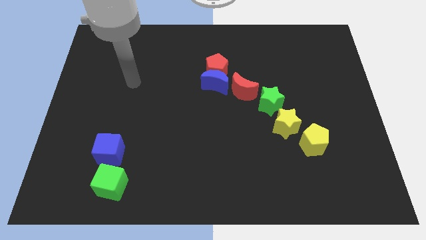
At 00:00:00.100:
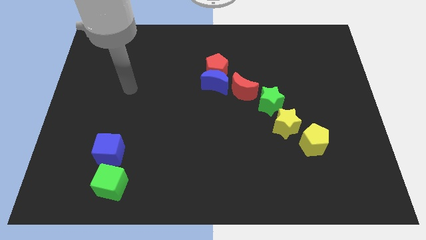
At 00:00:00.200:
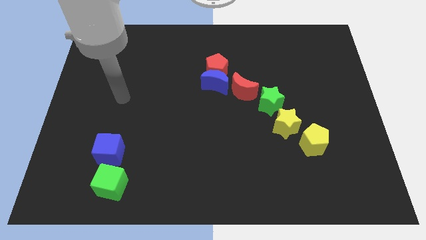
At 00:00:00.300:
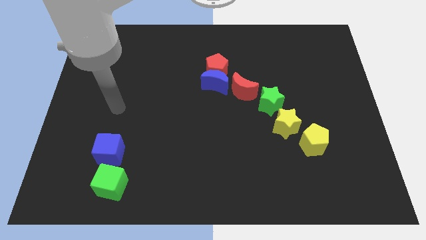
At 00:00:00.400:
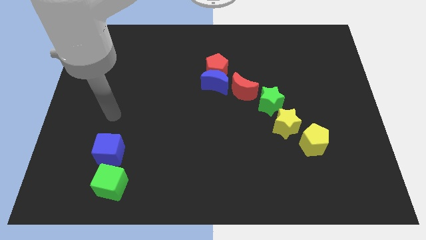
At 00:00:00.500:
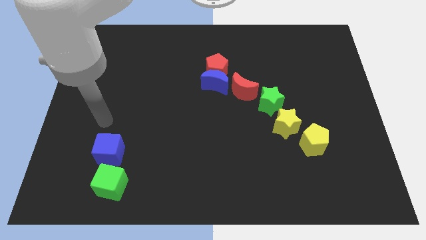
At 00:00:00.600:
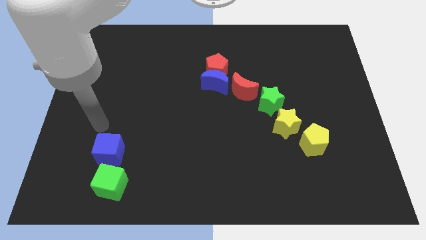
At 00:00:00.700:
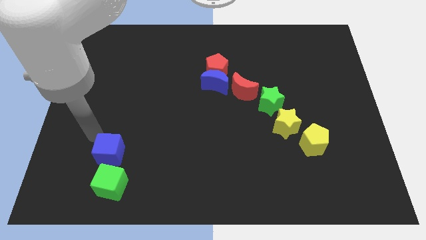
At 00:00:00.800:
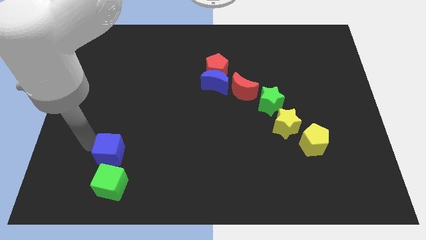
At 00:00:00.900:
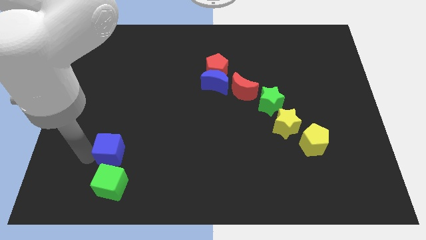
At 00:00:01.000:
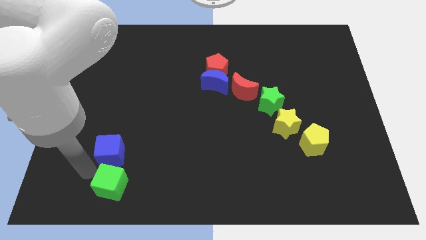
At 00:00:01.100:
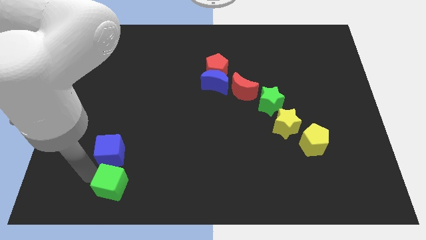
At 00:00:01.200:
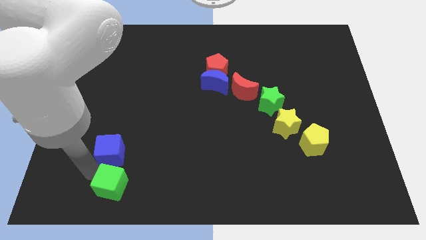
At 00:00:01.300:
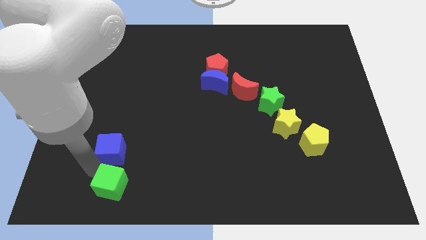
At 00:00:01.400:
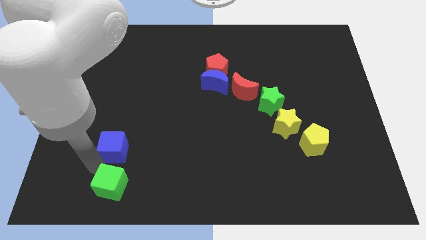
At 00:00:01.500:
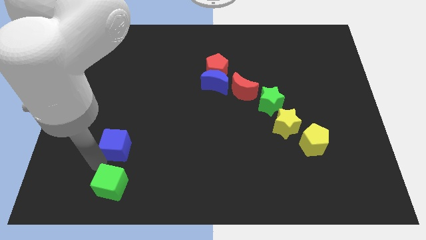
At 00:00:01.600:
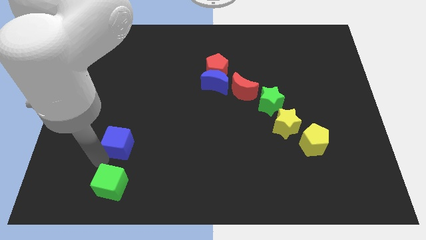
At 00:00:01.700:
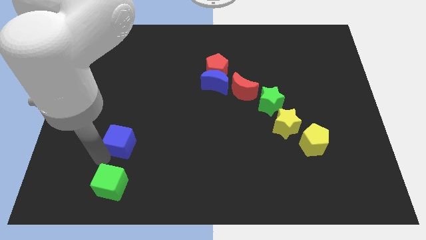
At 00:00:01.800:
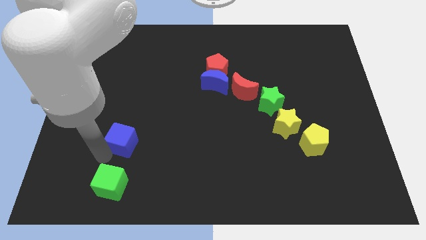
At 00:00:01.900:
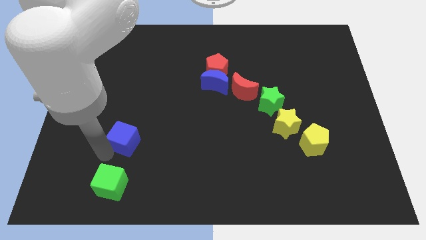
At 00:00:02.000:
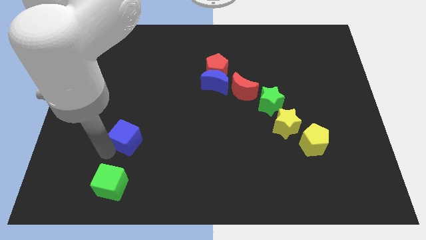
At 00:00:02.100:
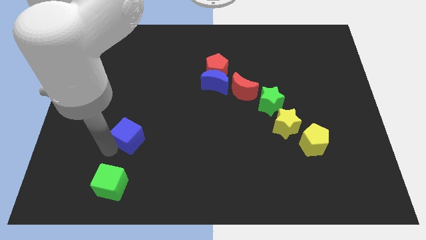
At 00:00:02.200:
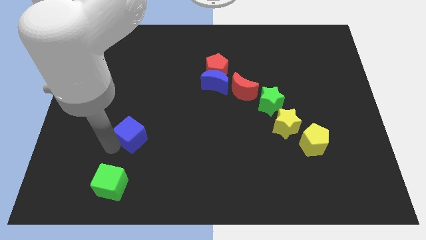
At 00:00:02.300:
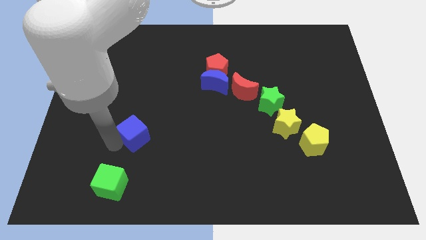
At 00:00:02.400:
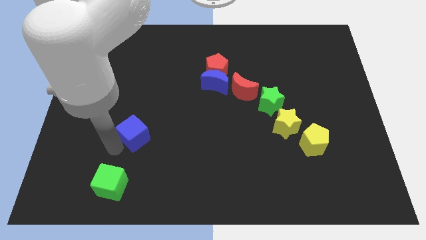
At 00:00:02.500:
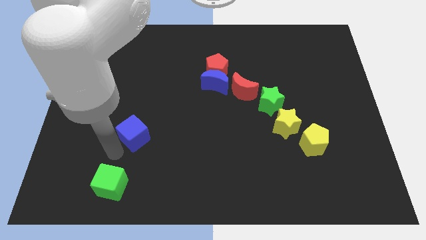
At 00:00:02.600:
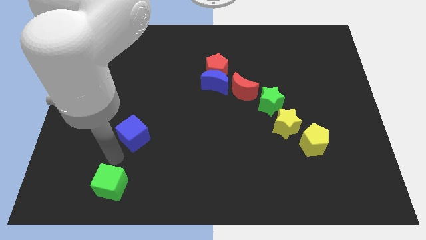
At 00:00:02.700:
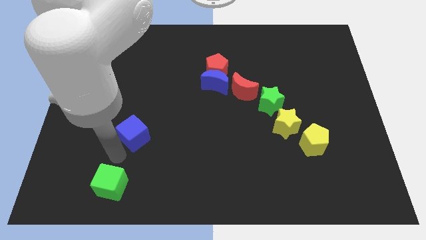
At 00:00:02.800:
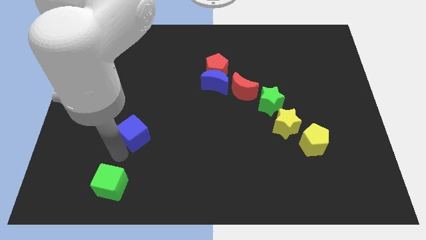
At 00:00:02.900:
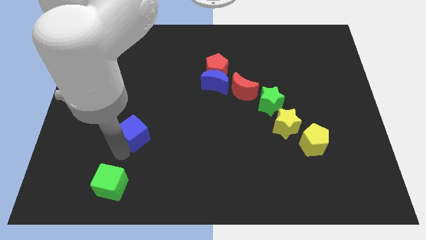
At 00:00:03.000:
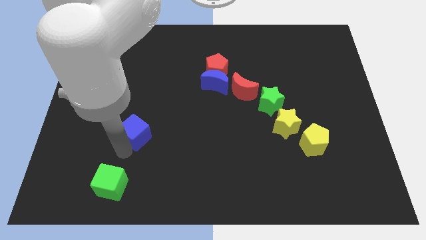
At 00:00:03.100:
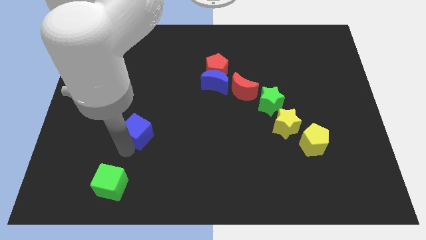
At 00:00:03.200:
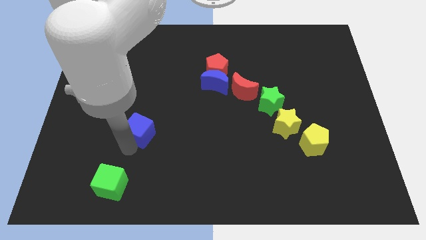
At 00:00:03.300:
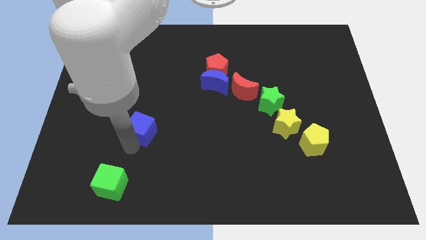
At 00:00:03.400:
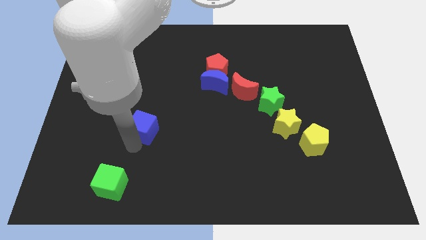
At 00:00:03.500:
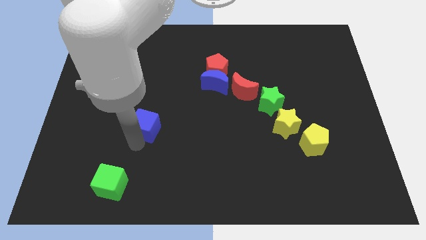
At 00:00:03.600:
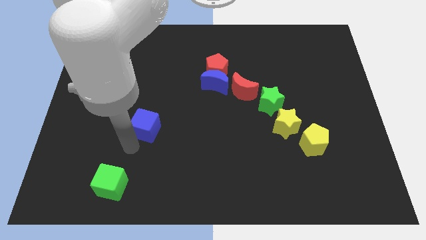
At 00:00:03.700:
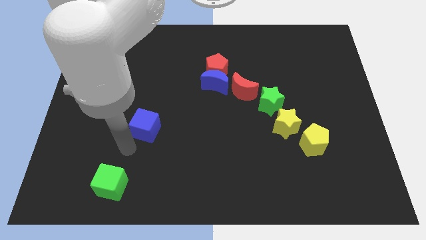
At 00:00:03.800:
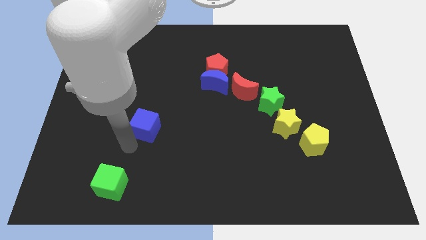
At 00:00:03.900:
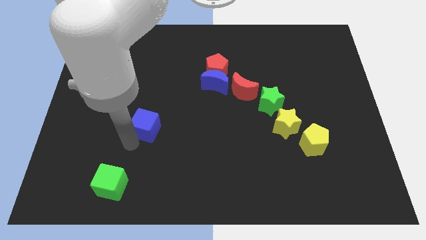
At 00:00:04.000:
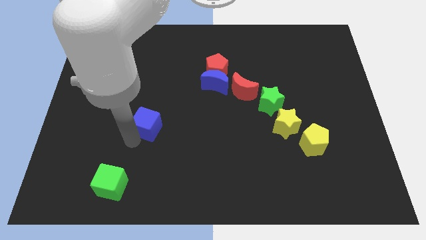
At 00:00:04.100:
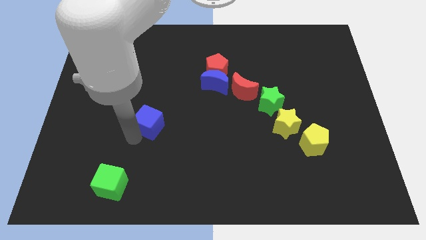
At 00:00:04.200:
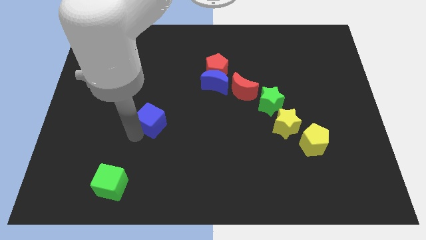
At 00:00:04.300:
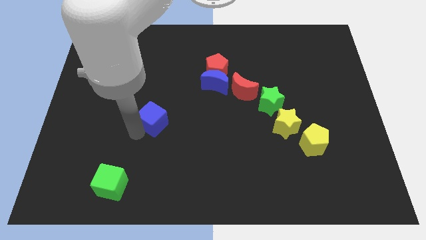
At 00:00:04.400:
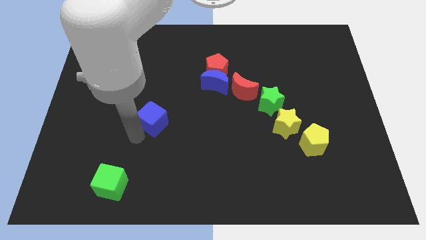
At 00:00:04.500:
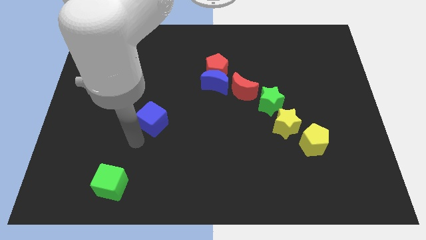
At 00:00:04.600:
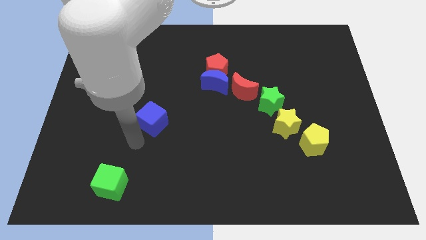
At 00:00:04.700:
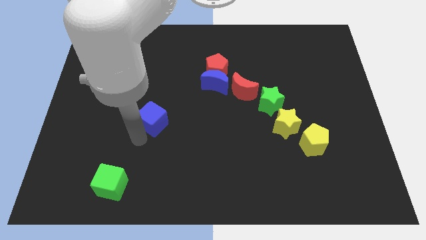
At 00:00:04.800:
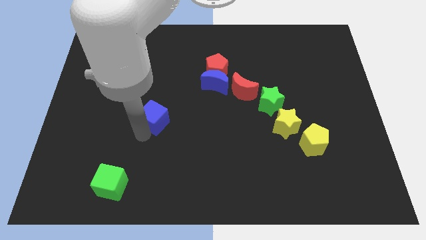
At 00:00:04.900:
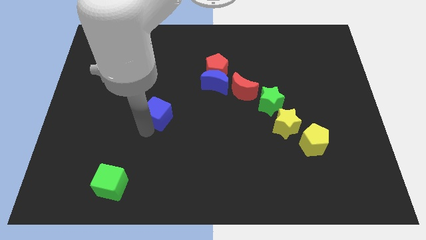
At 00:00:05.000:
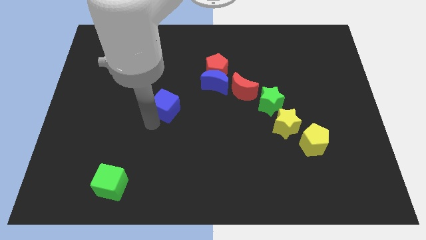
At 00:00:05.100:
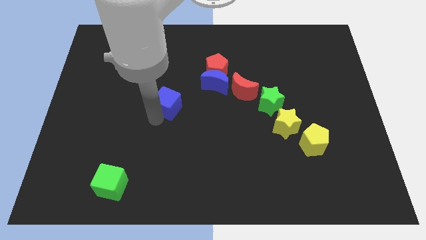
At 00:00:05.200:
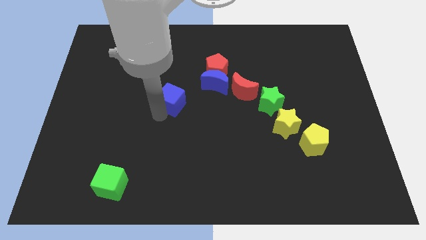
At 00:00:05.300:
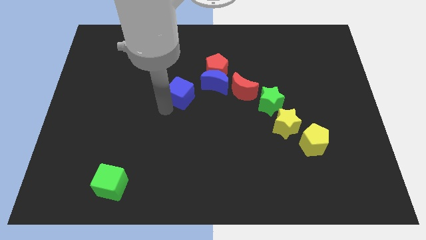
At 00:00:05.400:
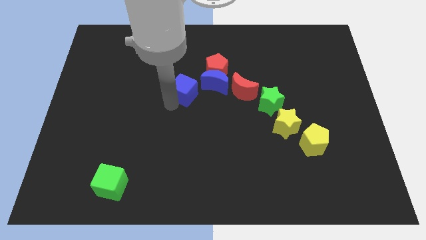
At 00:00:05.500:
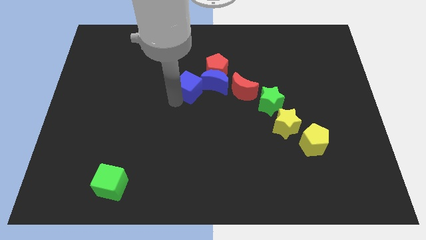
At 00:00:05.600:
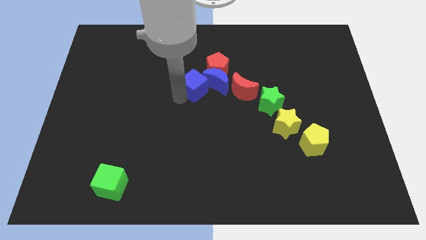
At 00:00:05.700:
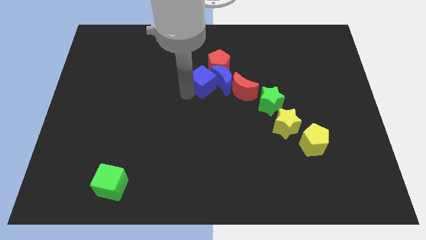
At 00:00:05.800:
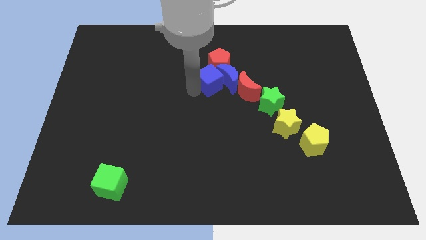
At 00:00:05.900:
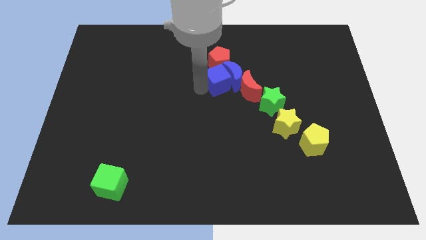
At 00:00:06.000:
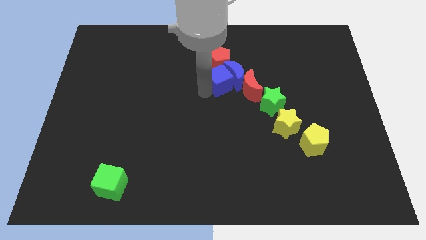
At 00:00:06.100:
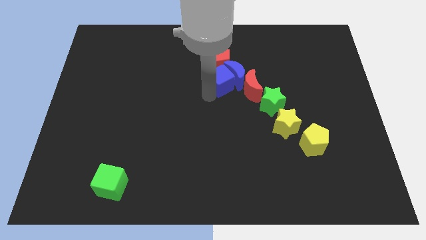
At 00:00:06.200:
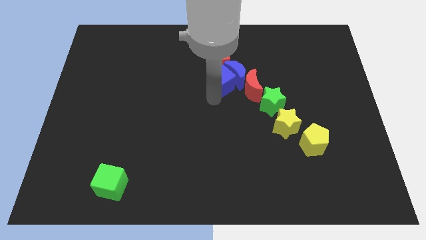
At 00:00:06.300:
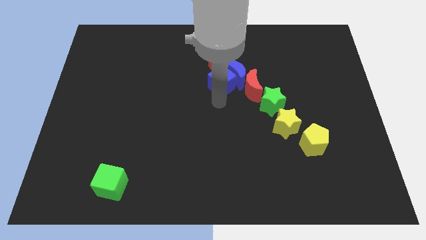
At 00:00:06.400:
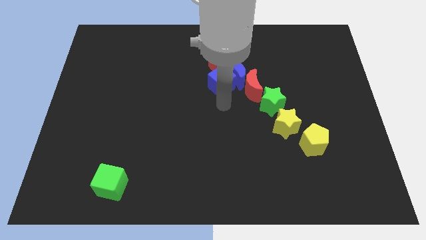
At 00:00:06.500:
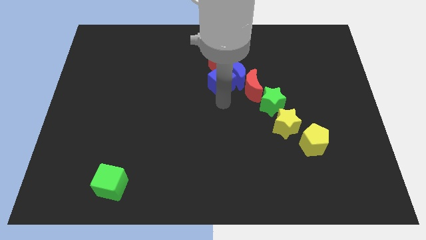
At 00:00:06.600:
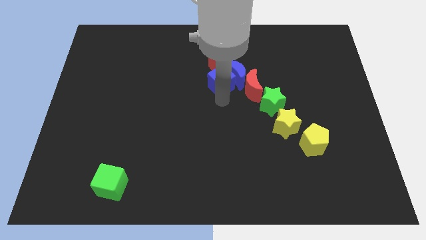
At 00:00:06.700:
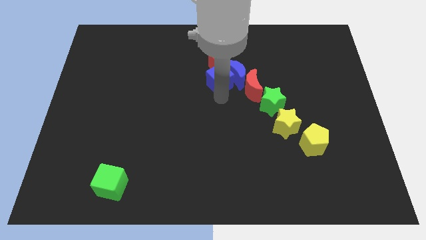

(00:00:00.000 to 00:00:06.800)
move the blue cube next to the red pentagon

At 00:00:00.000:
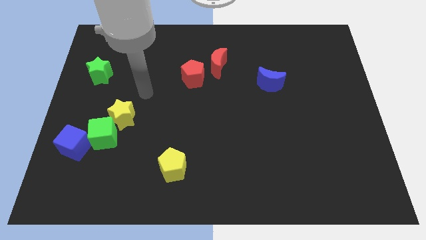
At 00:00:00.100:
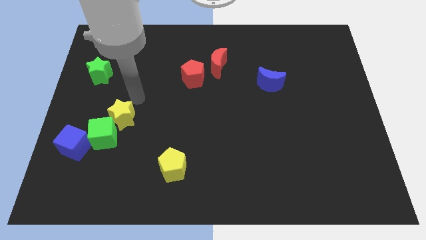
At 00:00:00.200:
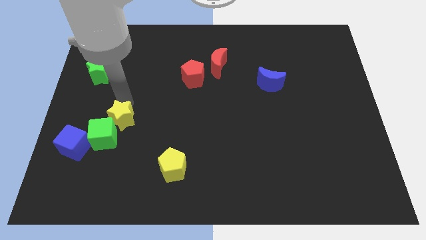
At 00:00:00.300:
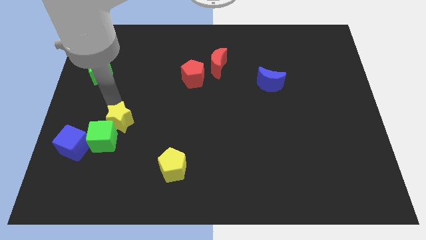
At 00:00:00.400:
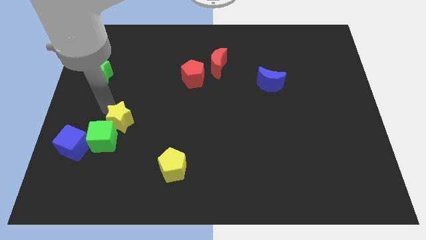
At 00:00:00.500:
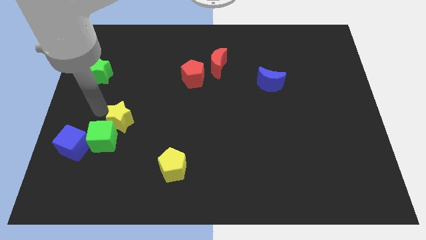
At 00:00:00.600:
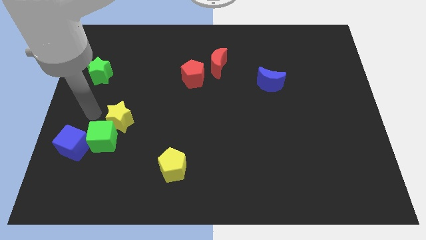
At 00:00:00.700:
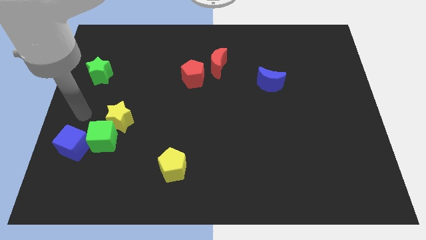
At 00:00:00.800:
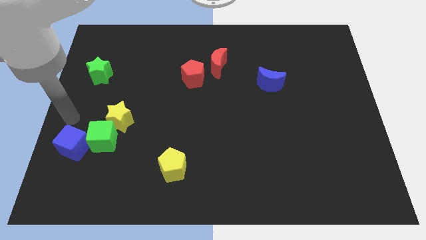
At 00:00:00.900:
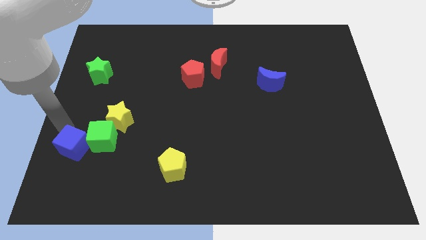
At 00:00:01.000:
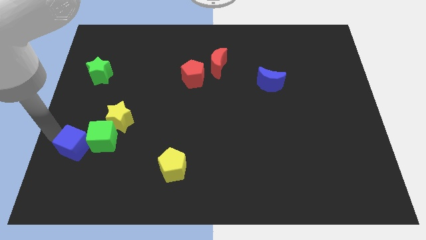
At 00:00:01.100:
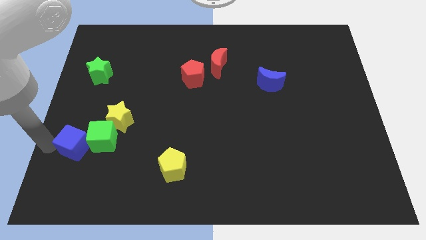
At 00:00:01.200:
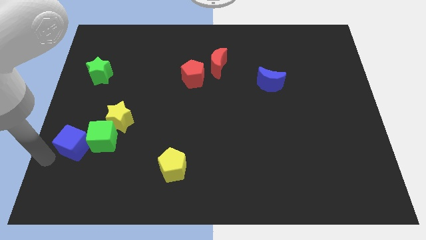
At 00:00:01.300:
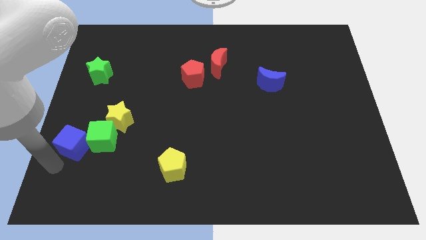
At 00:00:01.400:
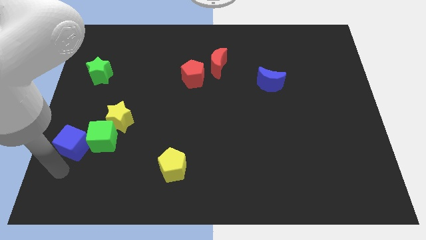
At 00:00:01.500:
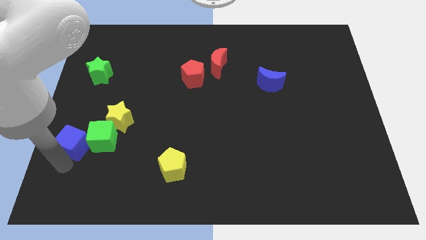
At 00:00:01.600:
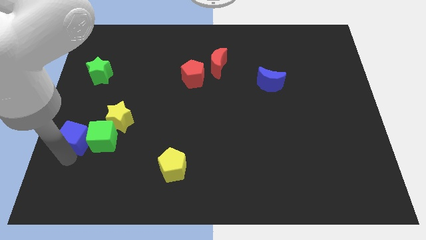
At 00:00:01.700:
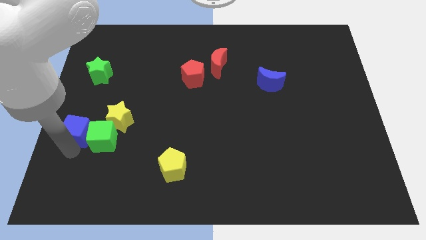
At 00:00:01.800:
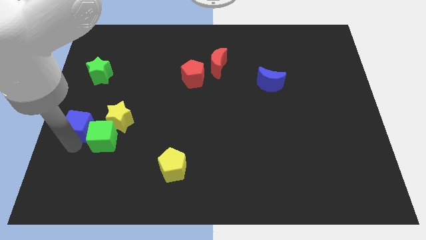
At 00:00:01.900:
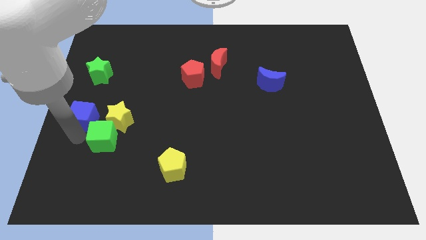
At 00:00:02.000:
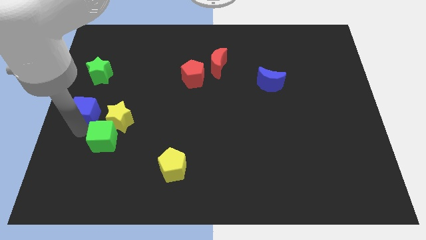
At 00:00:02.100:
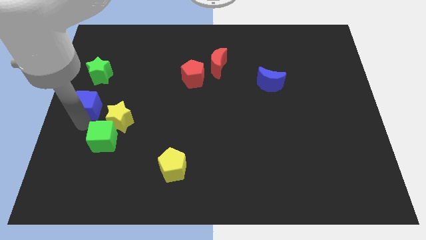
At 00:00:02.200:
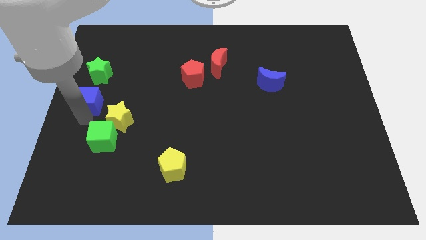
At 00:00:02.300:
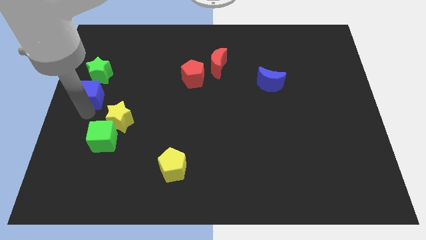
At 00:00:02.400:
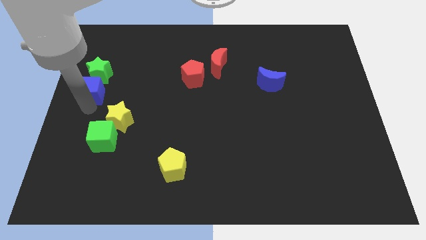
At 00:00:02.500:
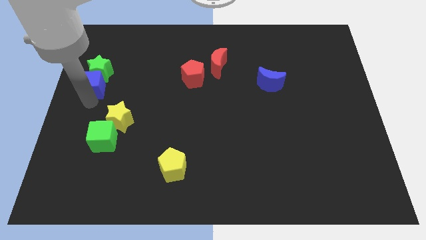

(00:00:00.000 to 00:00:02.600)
push the blue cube close to the green star
